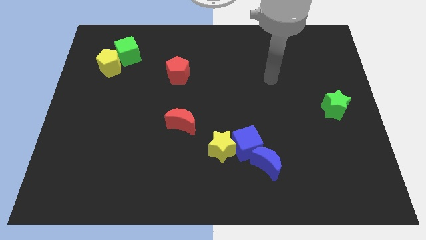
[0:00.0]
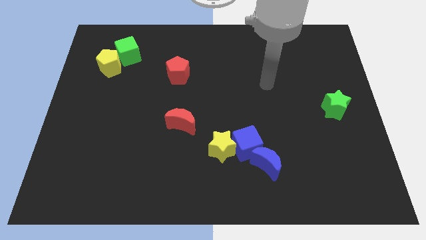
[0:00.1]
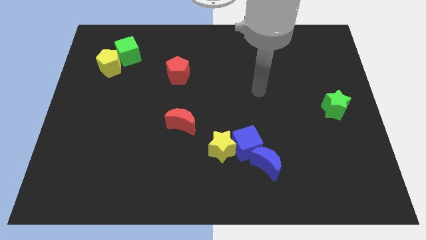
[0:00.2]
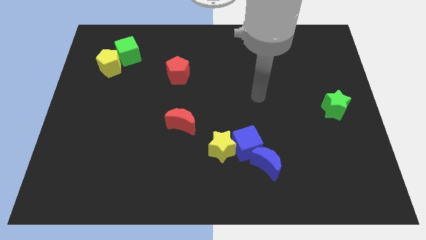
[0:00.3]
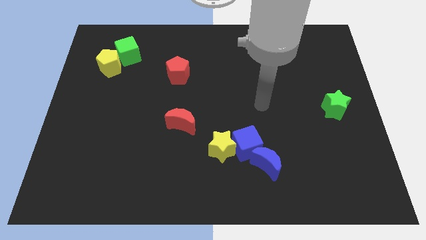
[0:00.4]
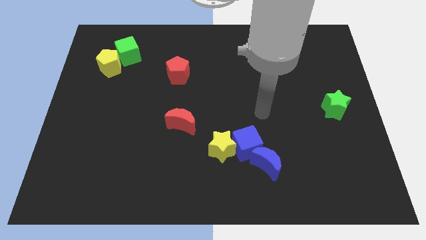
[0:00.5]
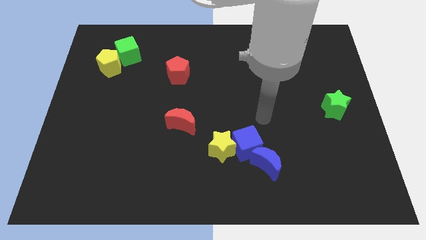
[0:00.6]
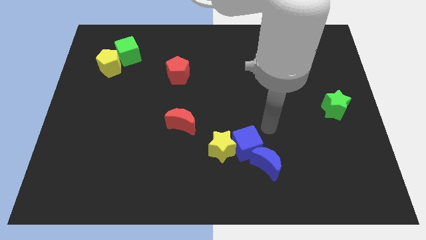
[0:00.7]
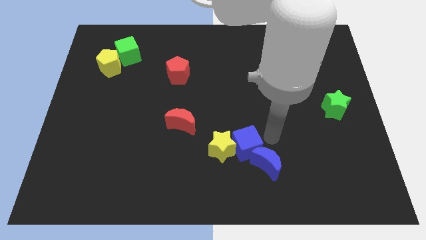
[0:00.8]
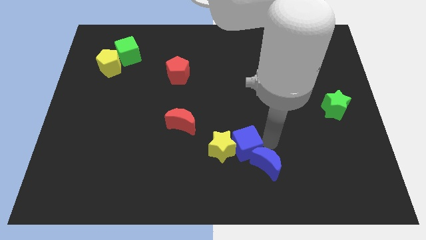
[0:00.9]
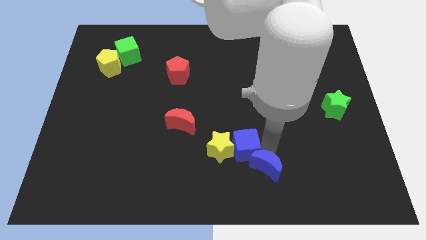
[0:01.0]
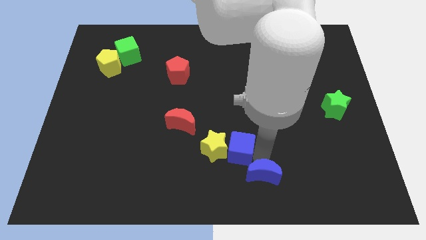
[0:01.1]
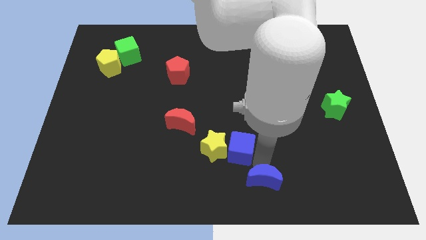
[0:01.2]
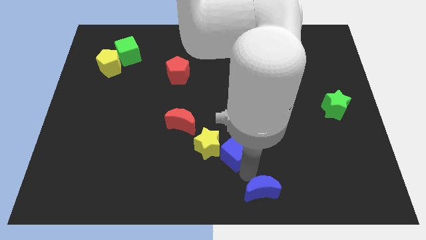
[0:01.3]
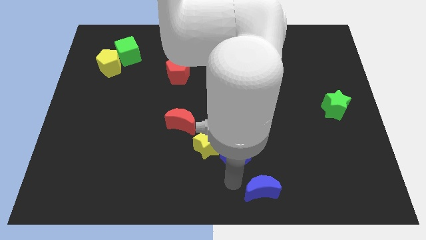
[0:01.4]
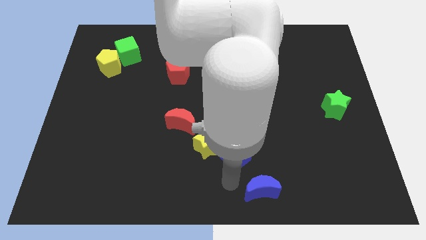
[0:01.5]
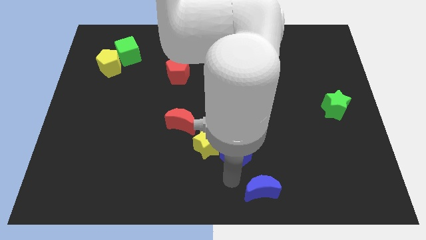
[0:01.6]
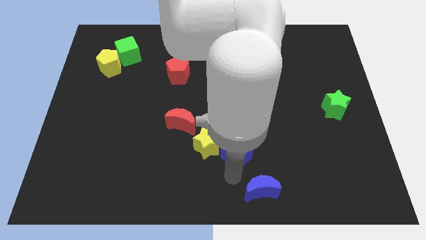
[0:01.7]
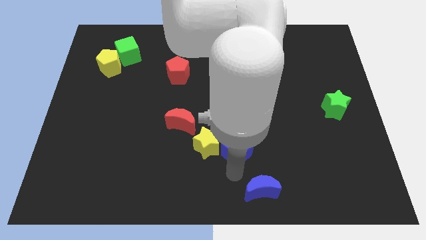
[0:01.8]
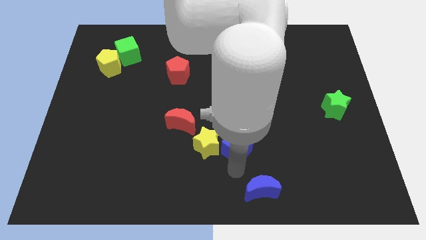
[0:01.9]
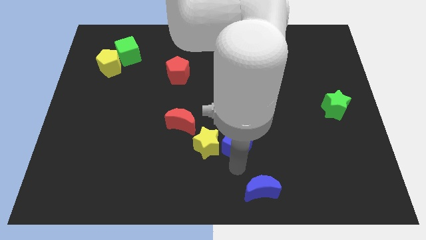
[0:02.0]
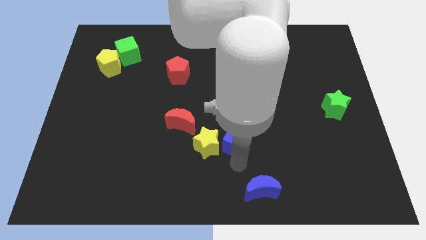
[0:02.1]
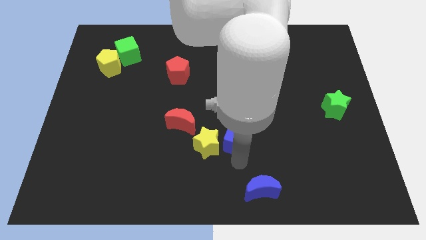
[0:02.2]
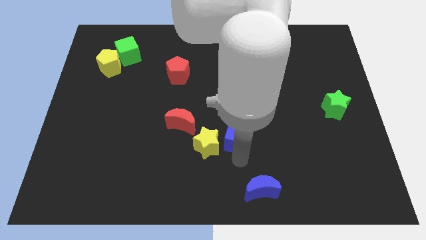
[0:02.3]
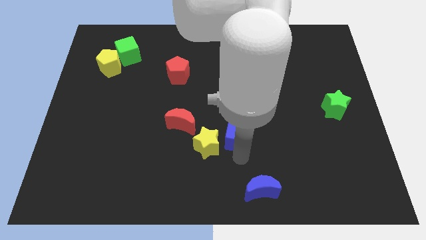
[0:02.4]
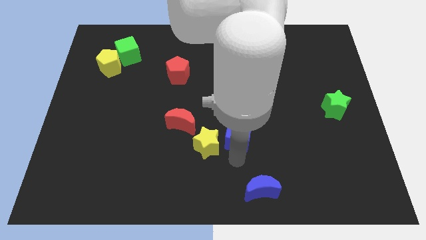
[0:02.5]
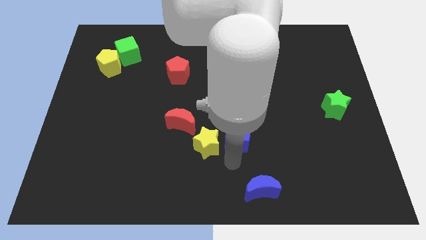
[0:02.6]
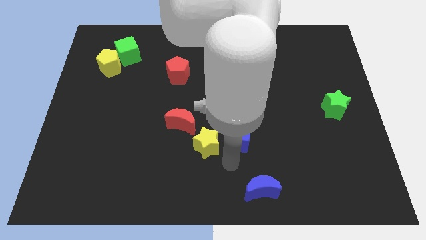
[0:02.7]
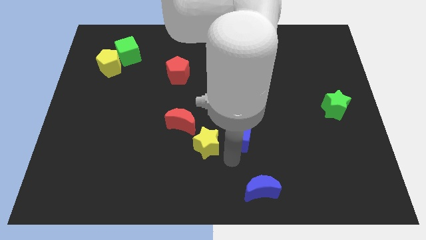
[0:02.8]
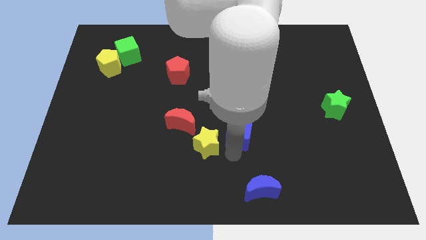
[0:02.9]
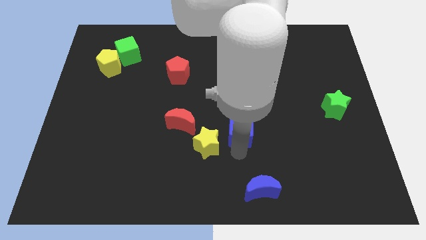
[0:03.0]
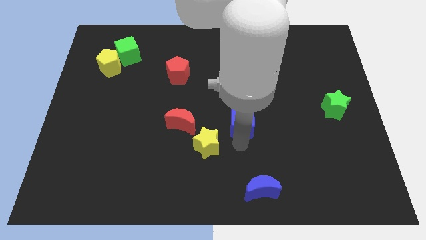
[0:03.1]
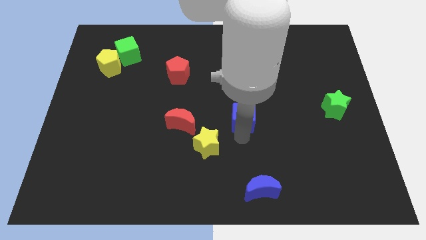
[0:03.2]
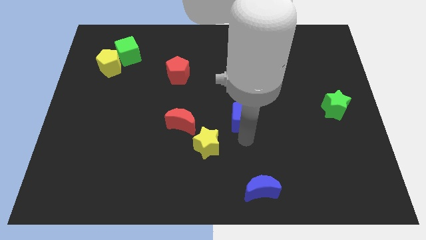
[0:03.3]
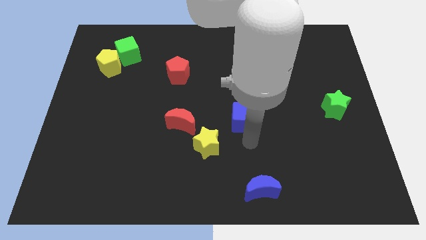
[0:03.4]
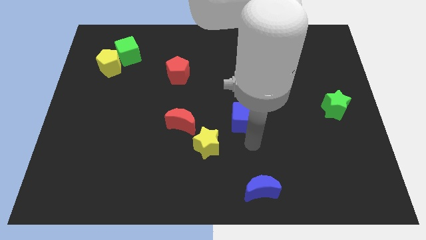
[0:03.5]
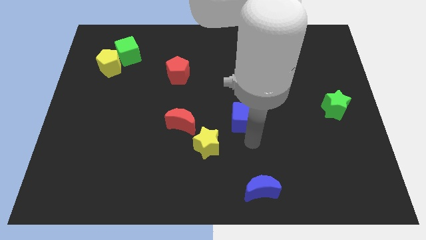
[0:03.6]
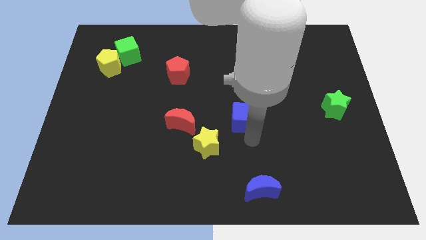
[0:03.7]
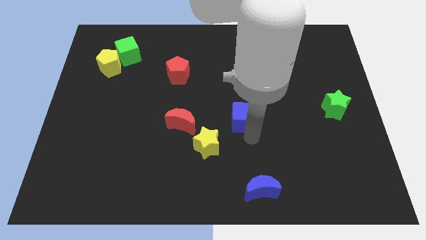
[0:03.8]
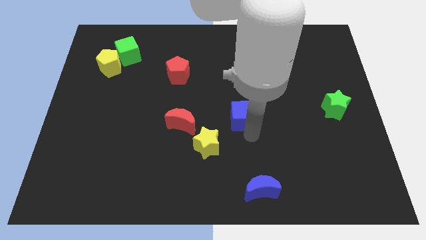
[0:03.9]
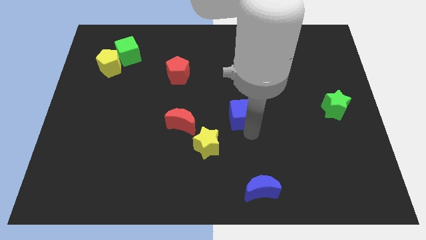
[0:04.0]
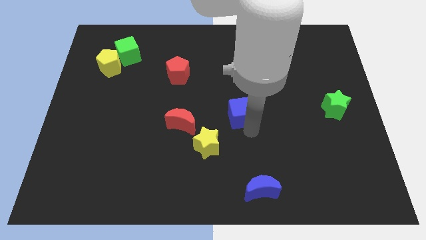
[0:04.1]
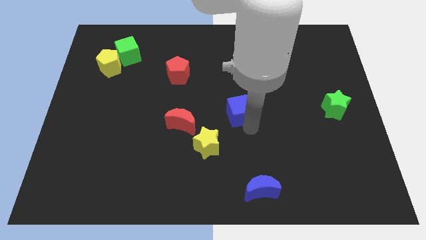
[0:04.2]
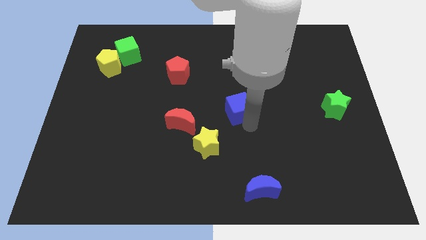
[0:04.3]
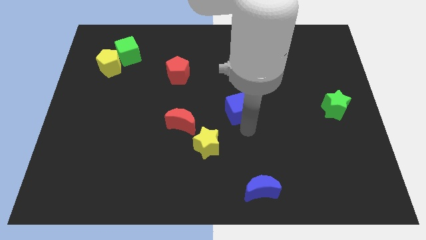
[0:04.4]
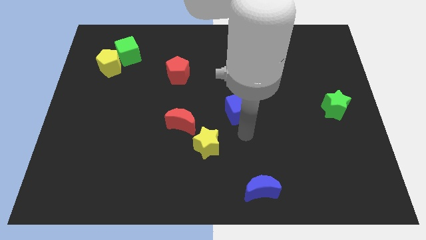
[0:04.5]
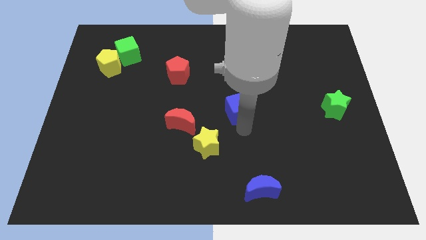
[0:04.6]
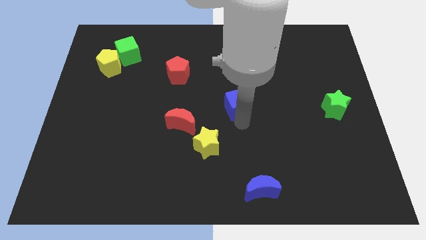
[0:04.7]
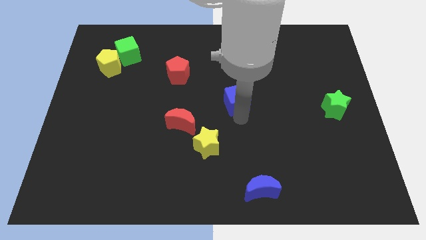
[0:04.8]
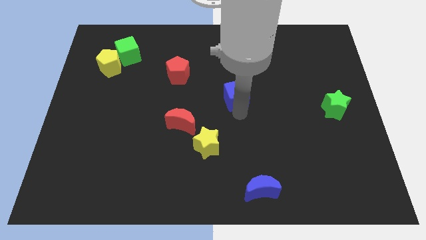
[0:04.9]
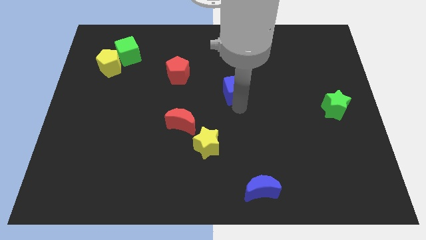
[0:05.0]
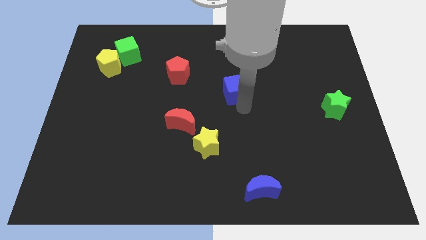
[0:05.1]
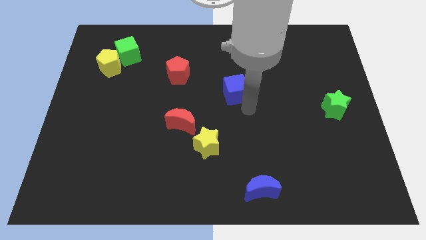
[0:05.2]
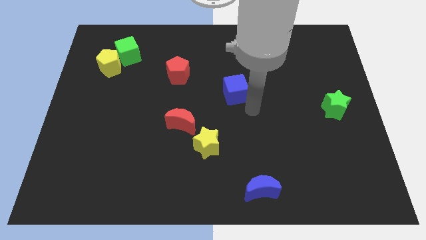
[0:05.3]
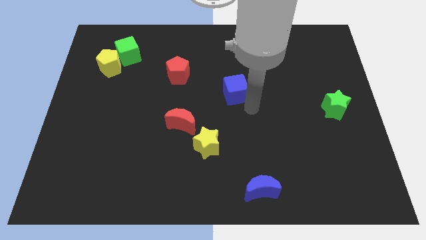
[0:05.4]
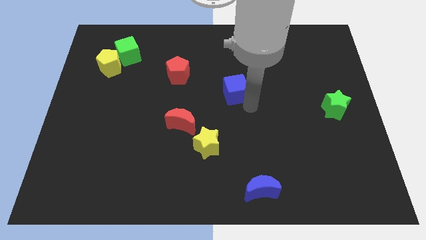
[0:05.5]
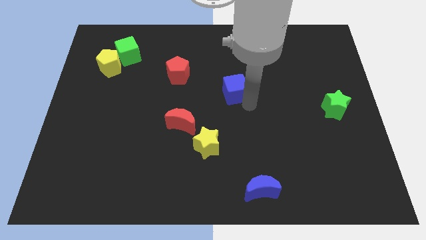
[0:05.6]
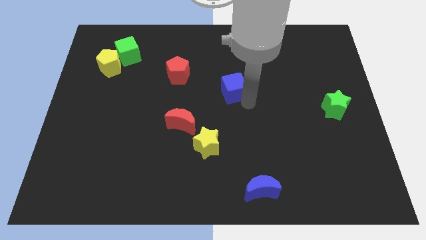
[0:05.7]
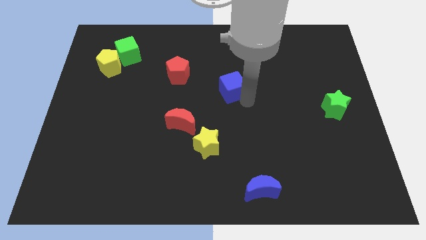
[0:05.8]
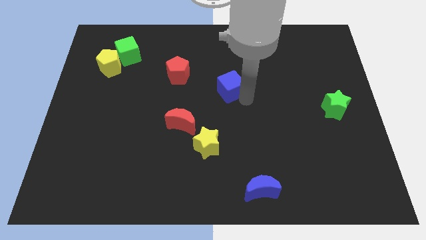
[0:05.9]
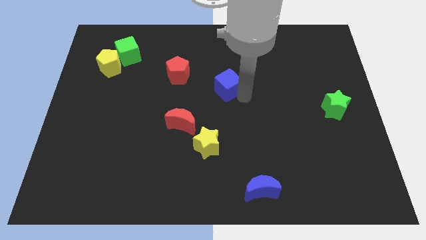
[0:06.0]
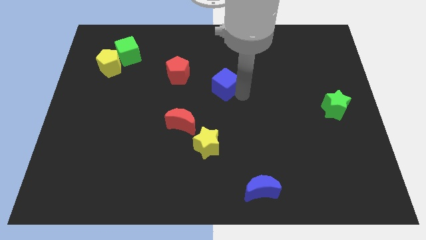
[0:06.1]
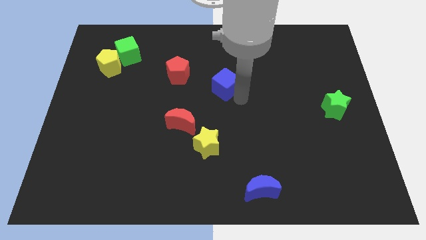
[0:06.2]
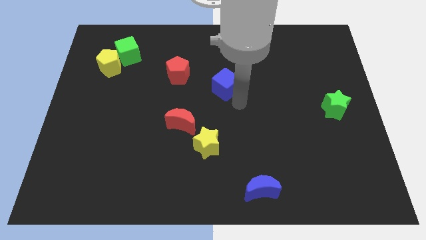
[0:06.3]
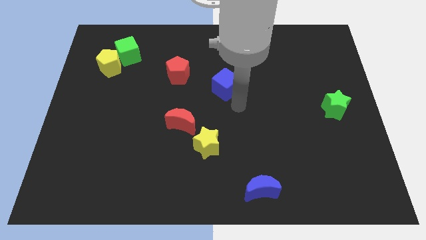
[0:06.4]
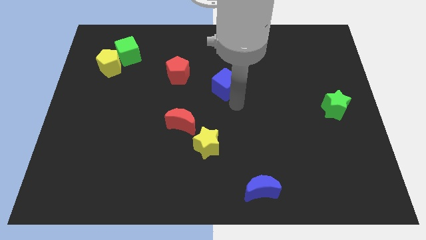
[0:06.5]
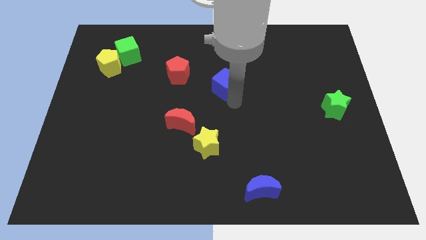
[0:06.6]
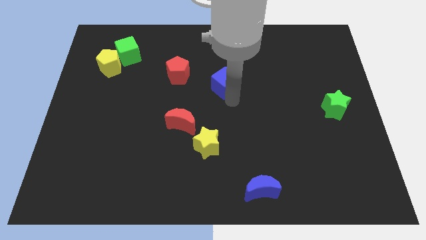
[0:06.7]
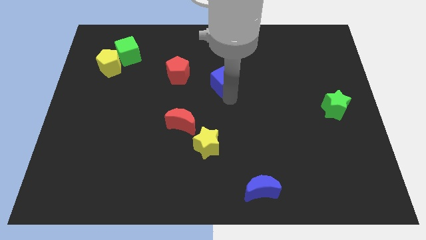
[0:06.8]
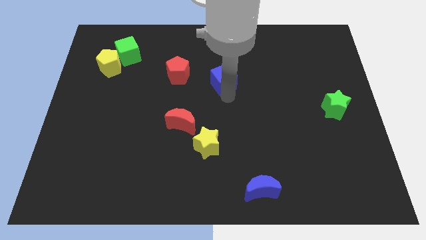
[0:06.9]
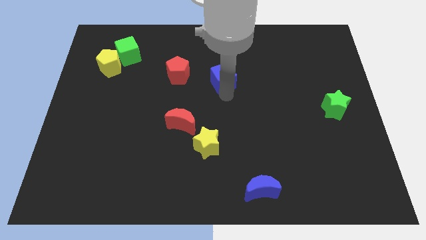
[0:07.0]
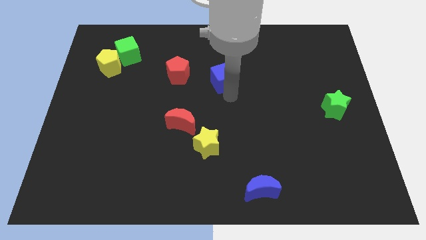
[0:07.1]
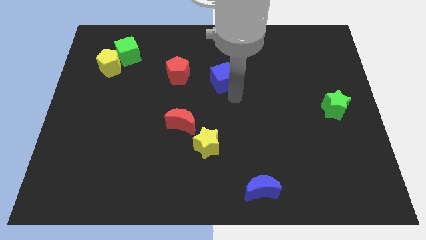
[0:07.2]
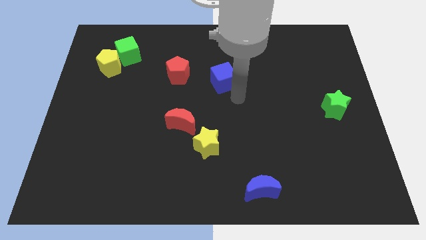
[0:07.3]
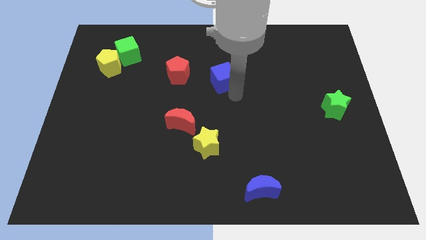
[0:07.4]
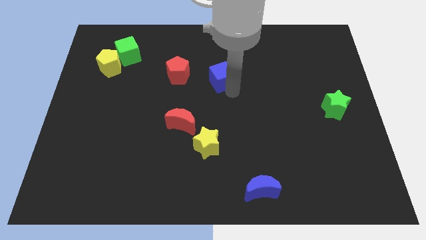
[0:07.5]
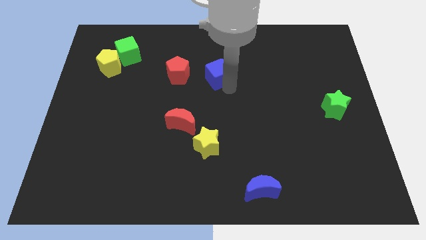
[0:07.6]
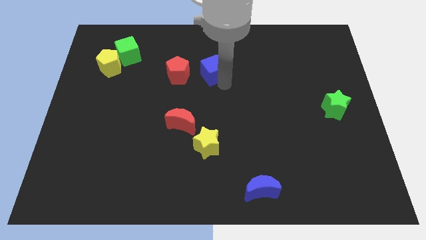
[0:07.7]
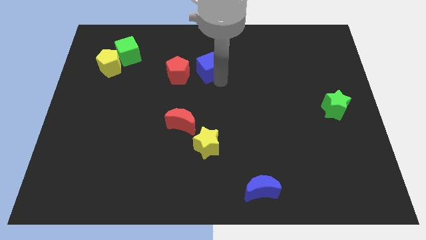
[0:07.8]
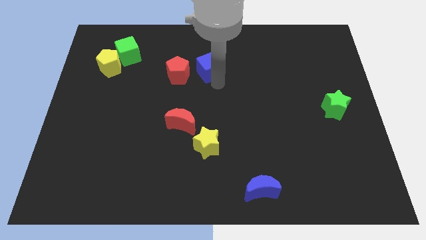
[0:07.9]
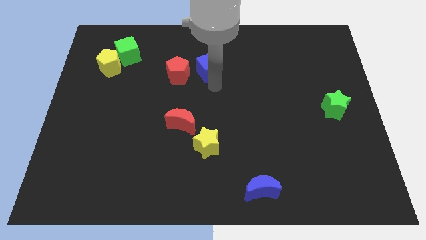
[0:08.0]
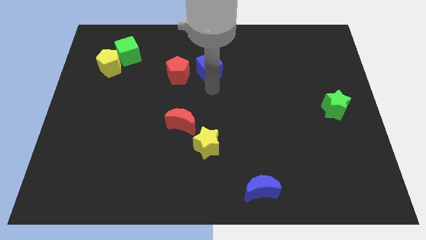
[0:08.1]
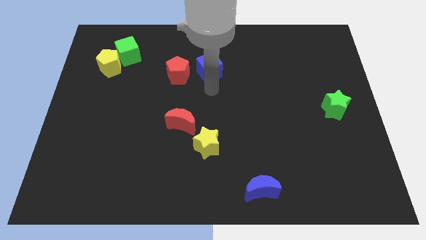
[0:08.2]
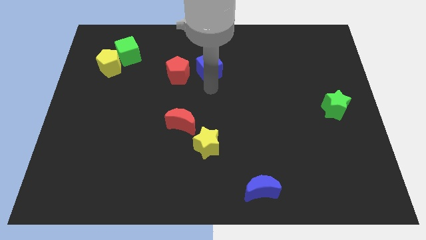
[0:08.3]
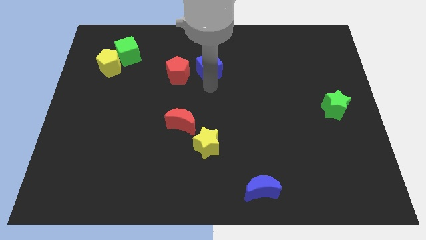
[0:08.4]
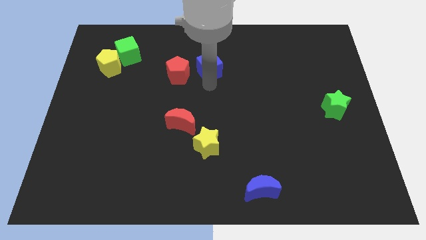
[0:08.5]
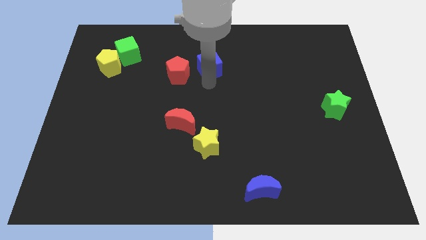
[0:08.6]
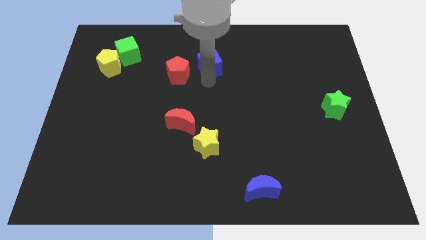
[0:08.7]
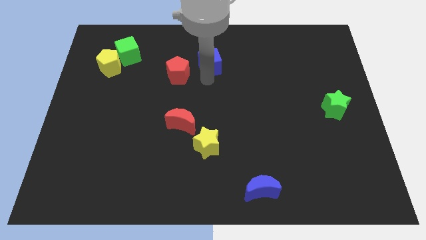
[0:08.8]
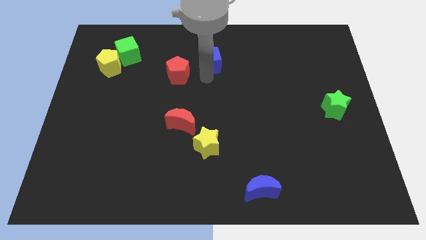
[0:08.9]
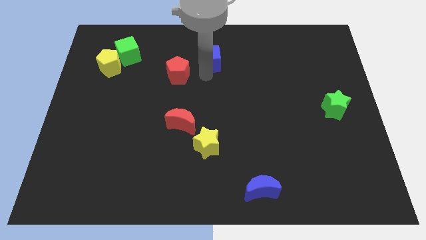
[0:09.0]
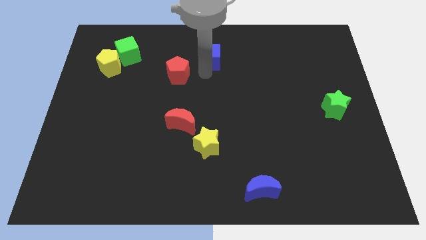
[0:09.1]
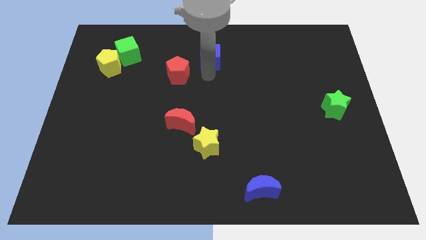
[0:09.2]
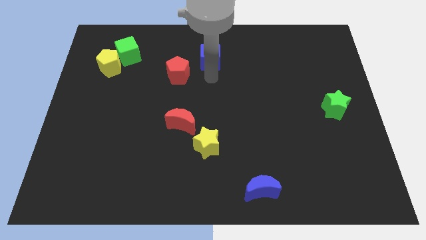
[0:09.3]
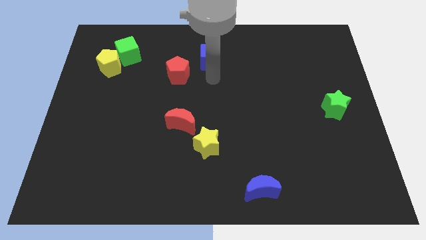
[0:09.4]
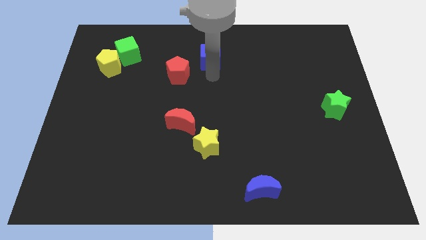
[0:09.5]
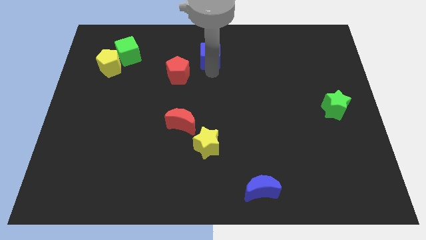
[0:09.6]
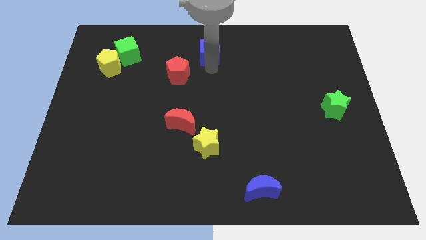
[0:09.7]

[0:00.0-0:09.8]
move the blue cube to the top
